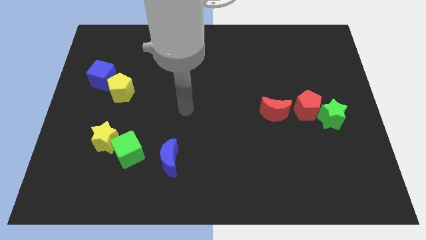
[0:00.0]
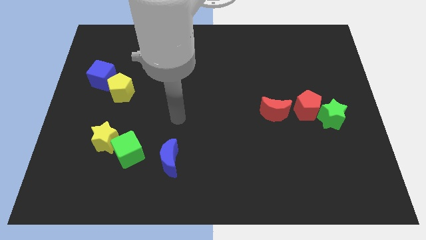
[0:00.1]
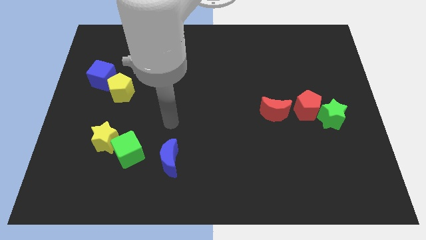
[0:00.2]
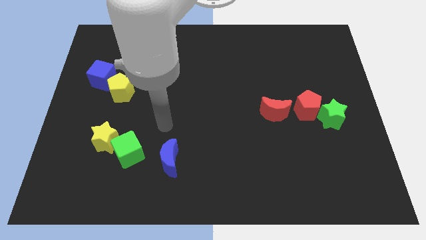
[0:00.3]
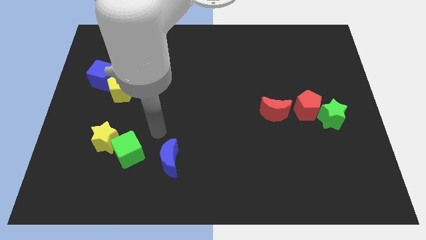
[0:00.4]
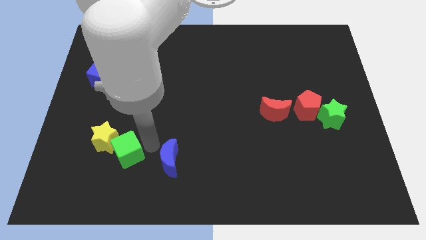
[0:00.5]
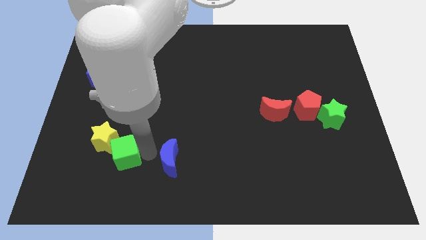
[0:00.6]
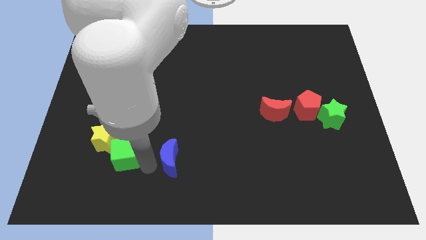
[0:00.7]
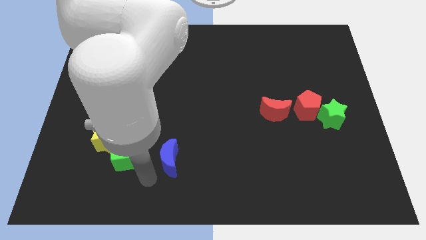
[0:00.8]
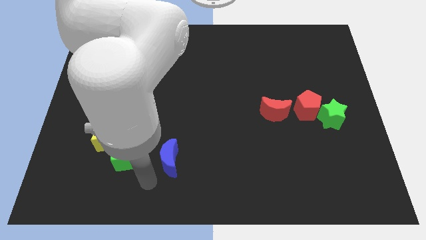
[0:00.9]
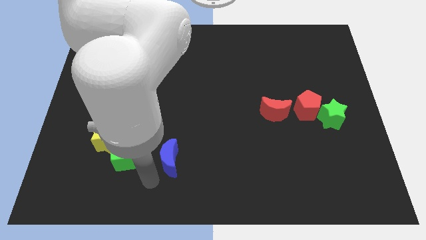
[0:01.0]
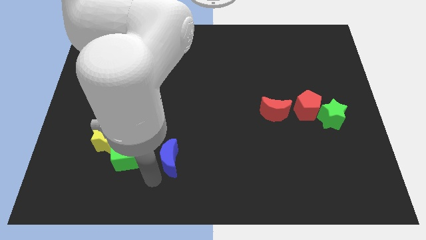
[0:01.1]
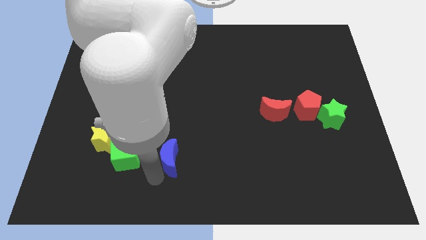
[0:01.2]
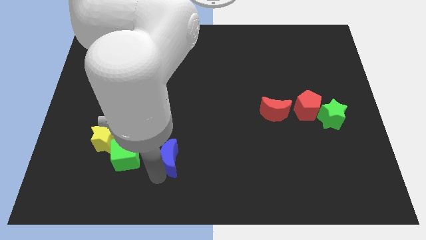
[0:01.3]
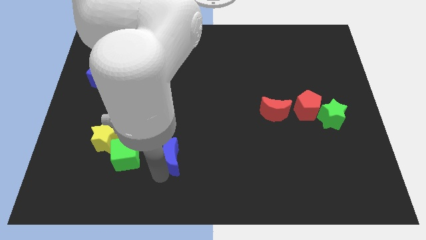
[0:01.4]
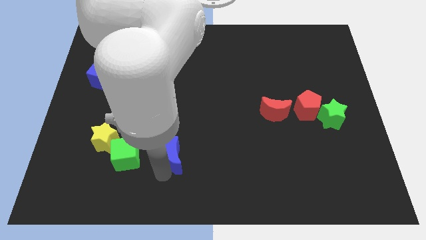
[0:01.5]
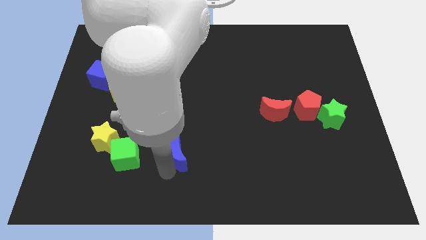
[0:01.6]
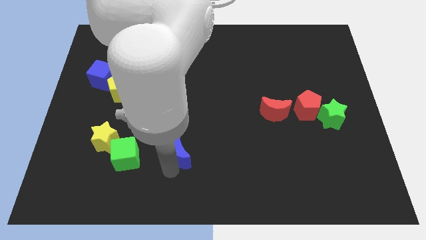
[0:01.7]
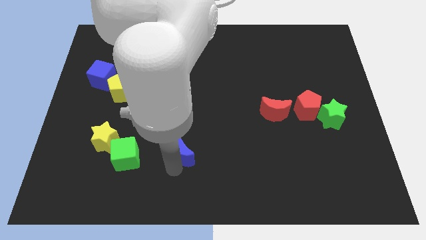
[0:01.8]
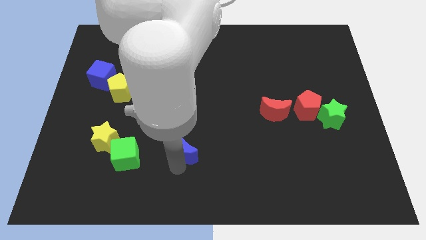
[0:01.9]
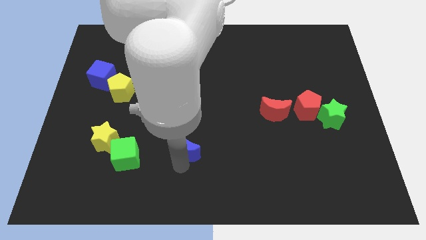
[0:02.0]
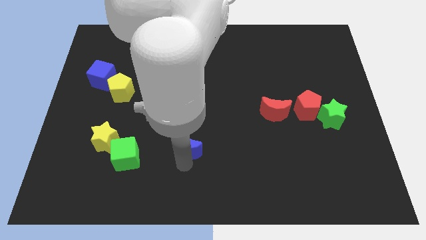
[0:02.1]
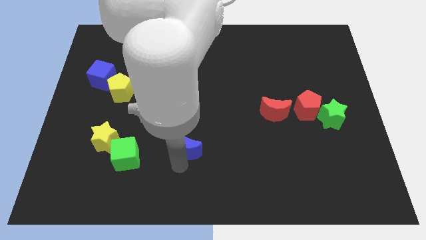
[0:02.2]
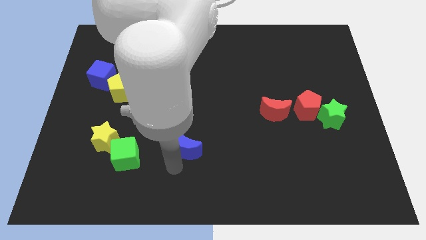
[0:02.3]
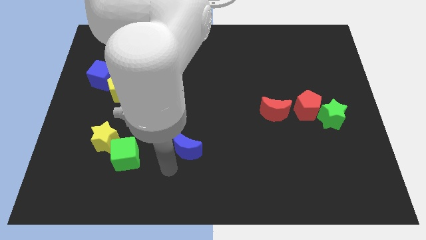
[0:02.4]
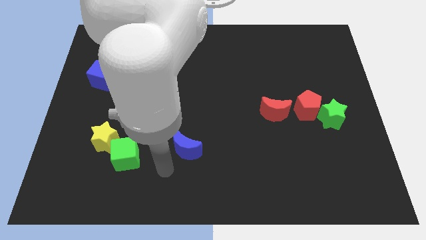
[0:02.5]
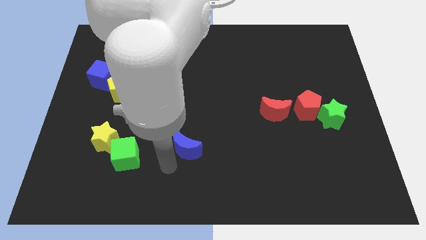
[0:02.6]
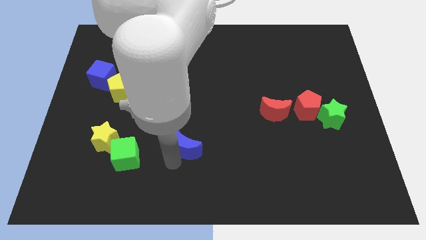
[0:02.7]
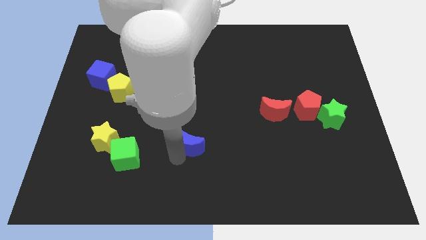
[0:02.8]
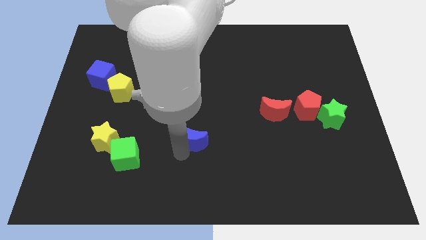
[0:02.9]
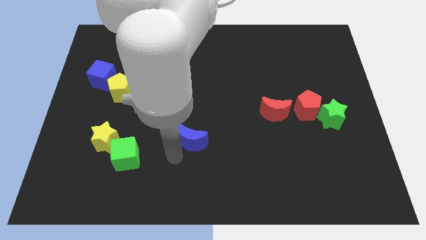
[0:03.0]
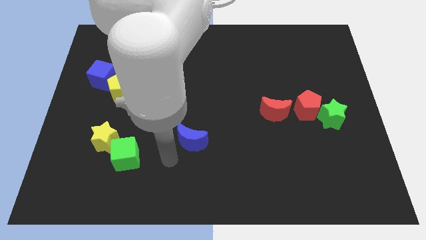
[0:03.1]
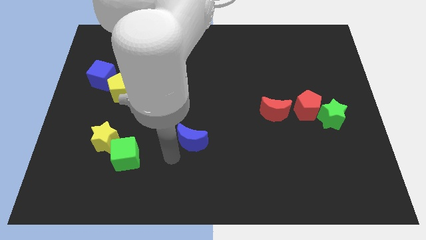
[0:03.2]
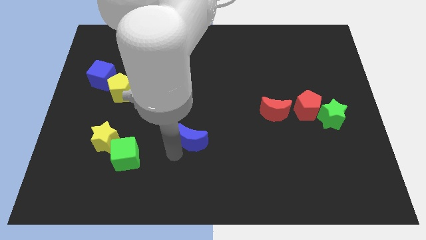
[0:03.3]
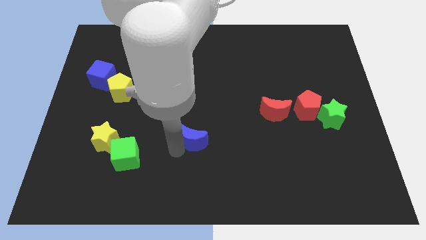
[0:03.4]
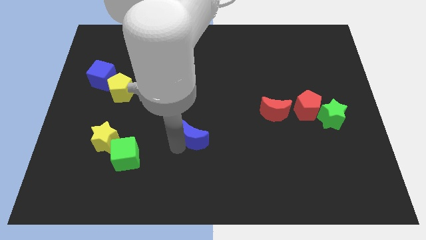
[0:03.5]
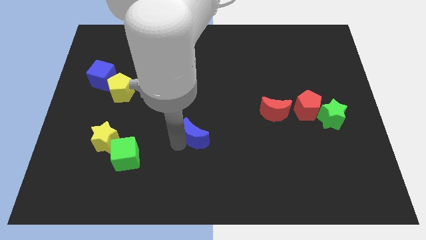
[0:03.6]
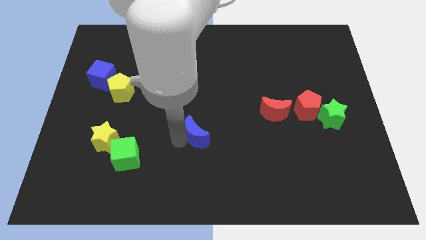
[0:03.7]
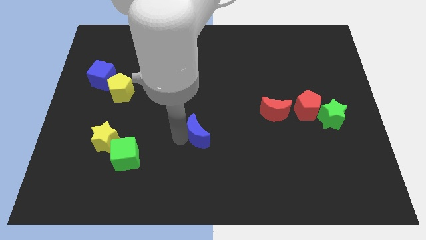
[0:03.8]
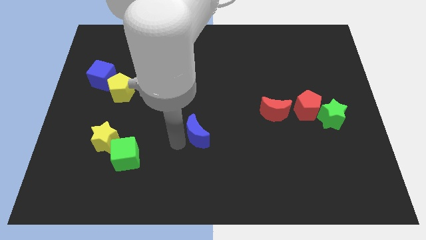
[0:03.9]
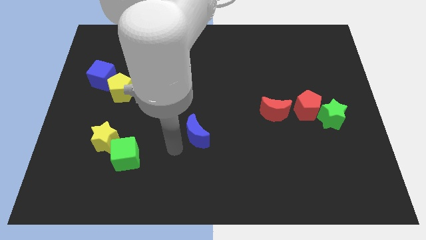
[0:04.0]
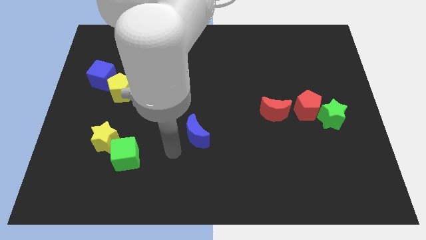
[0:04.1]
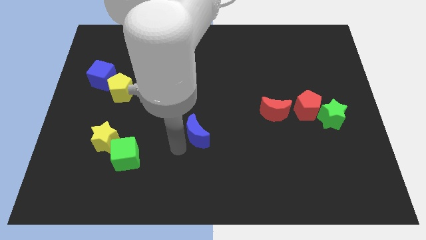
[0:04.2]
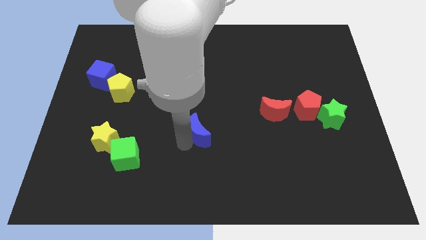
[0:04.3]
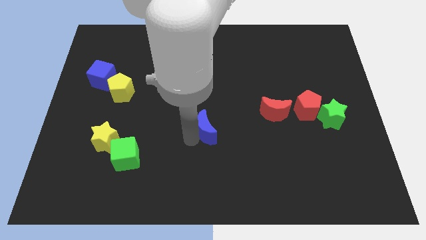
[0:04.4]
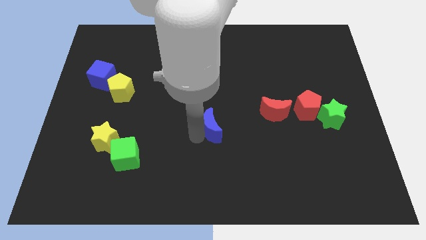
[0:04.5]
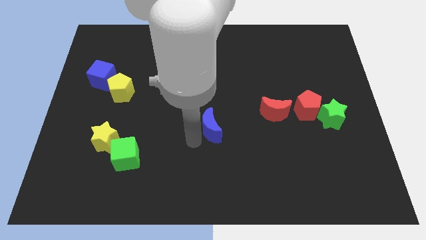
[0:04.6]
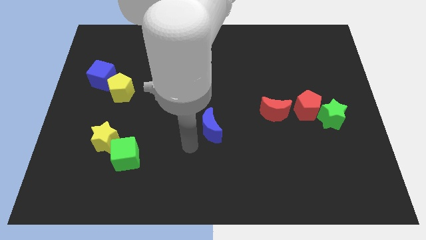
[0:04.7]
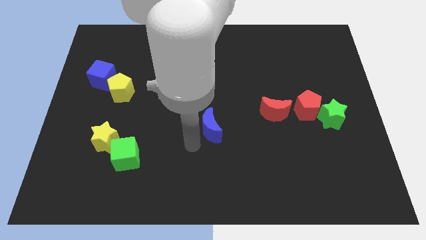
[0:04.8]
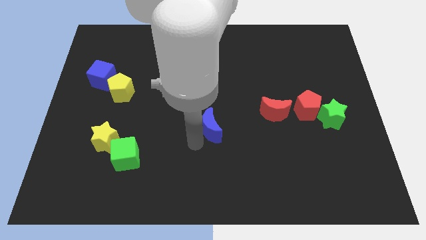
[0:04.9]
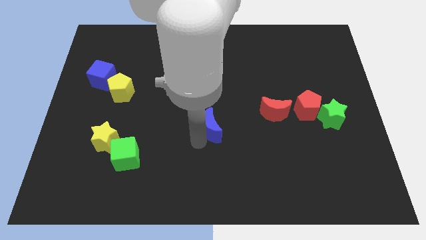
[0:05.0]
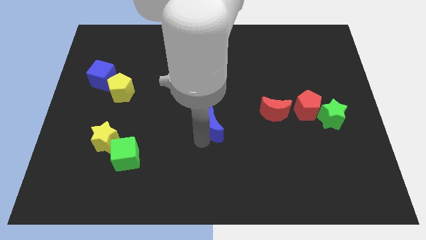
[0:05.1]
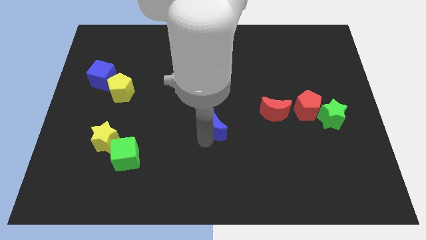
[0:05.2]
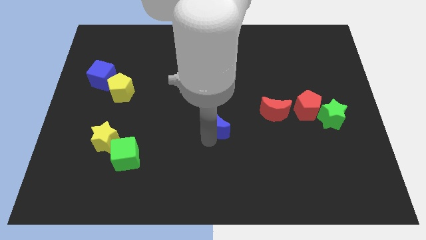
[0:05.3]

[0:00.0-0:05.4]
put the blue moon just left of the red moon

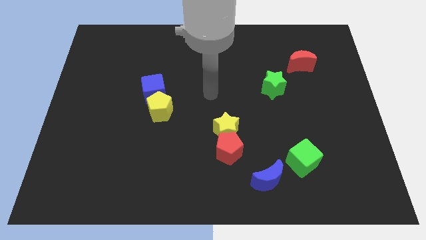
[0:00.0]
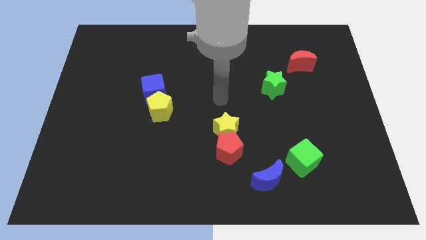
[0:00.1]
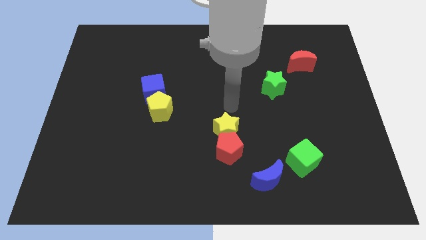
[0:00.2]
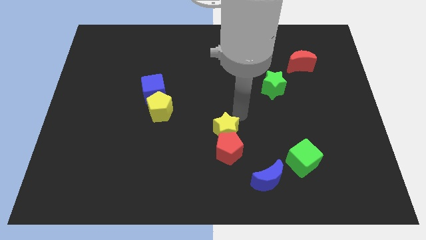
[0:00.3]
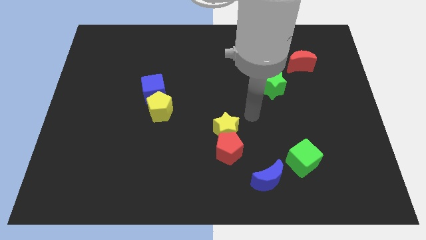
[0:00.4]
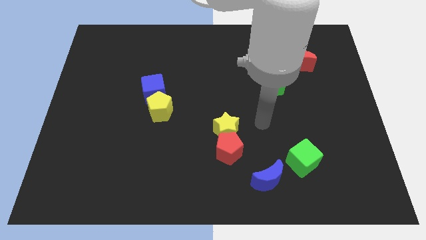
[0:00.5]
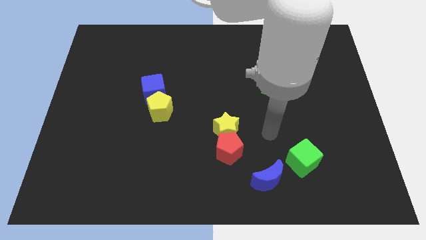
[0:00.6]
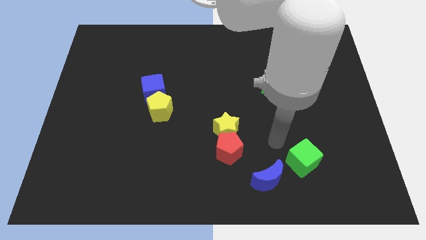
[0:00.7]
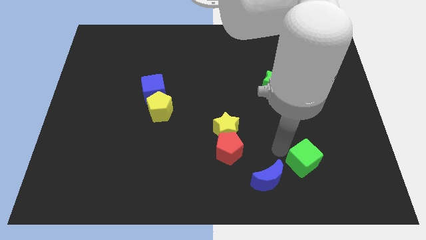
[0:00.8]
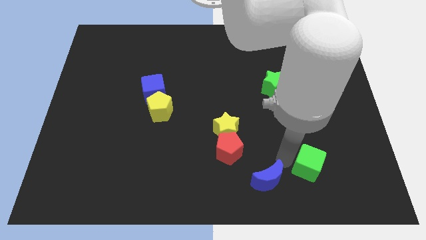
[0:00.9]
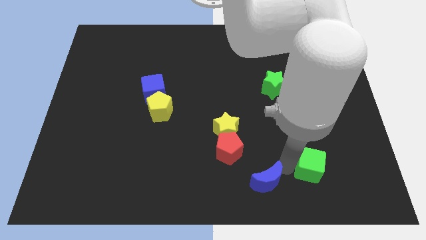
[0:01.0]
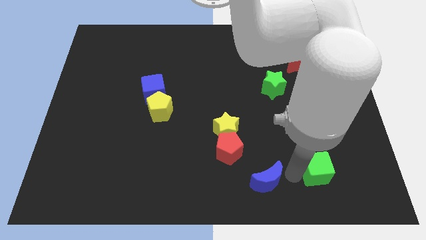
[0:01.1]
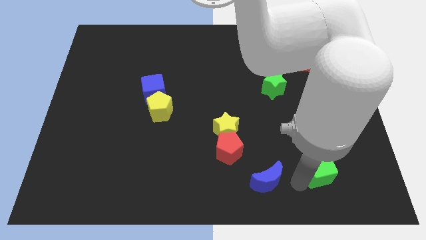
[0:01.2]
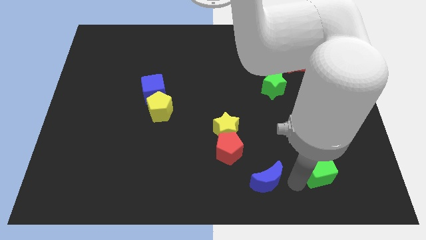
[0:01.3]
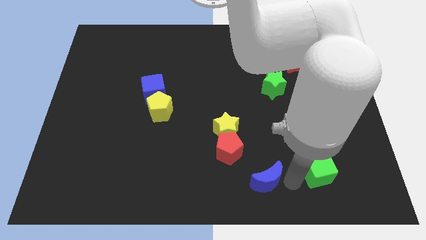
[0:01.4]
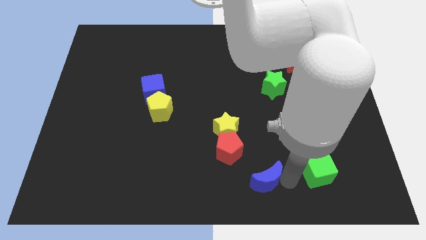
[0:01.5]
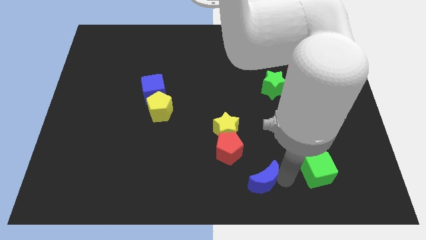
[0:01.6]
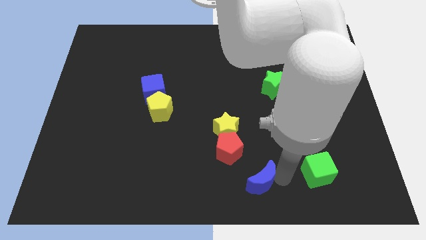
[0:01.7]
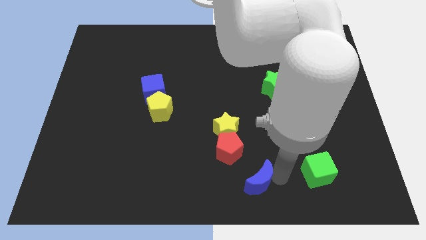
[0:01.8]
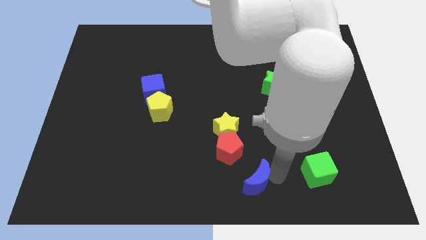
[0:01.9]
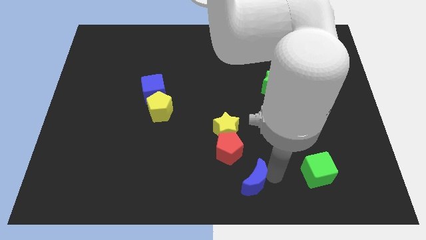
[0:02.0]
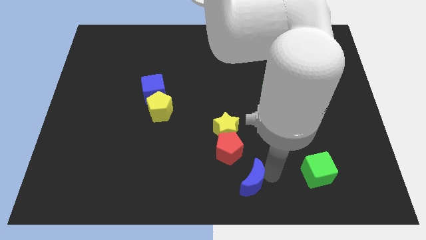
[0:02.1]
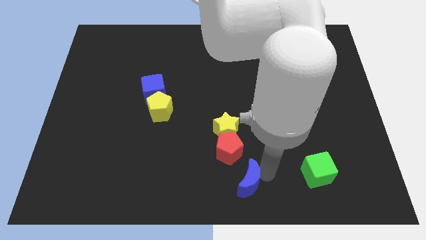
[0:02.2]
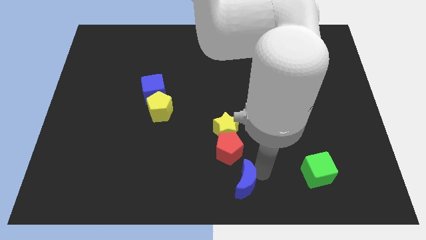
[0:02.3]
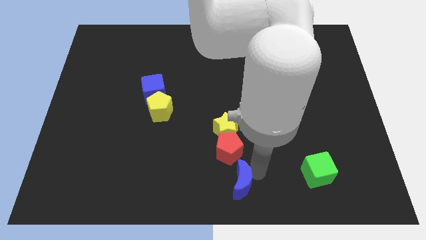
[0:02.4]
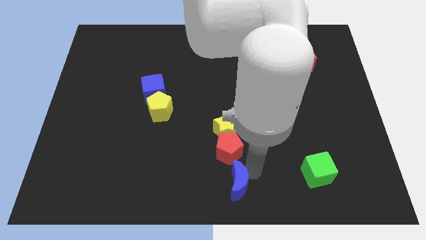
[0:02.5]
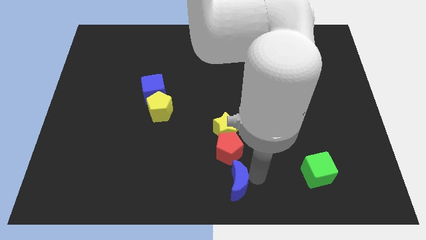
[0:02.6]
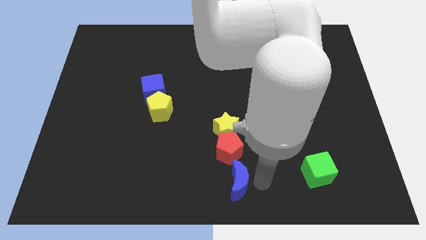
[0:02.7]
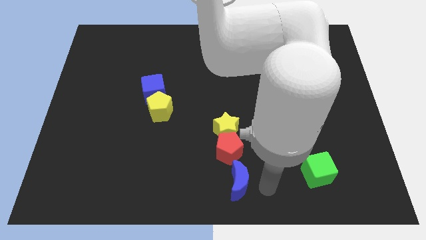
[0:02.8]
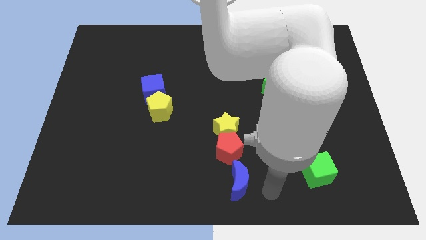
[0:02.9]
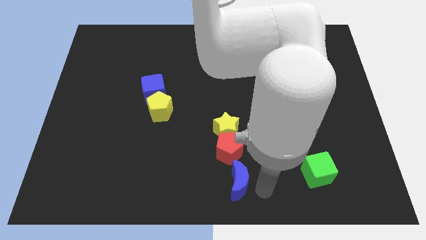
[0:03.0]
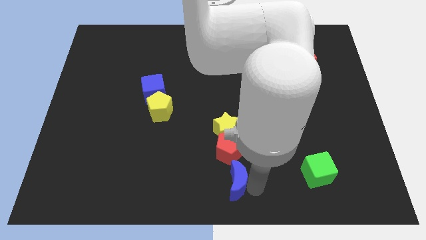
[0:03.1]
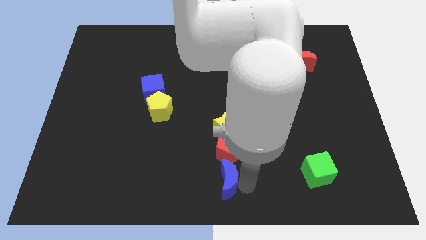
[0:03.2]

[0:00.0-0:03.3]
put the blue moon diagonally down and to the left of the red pentagon
